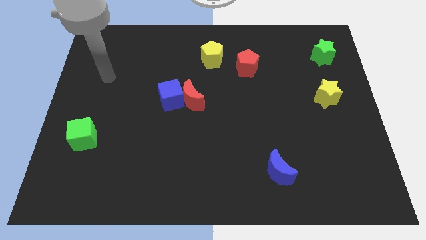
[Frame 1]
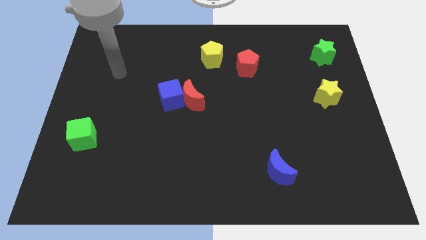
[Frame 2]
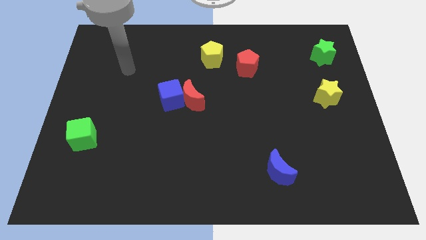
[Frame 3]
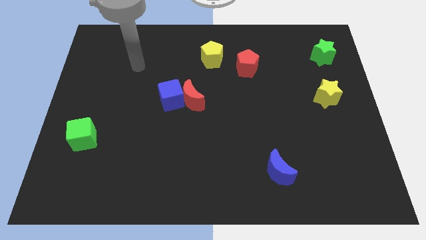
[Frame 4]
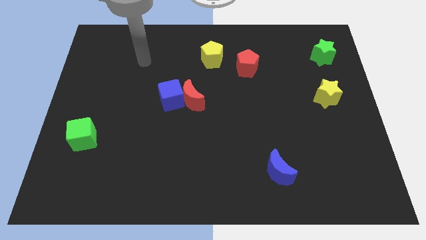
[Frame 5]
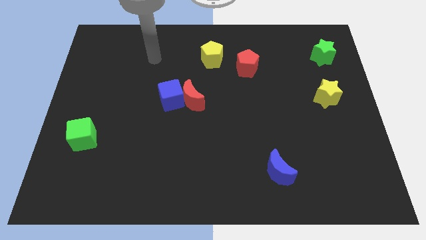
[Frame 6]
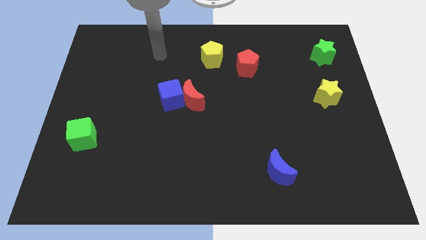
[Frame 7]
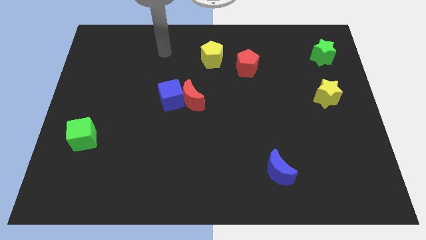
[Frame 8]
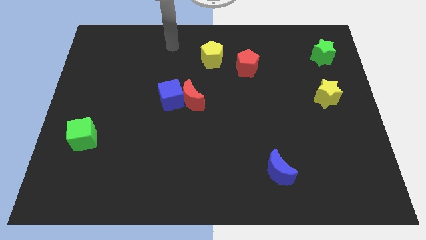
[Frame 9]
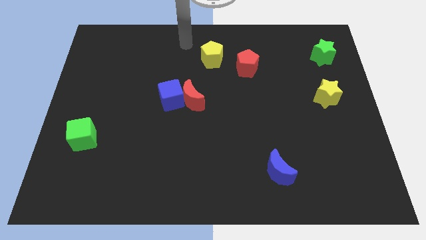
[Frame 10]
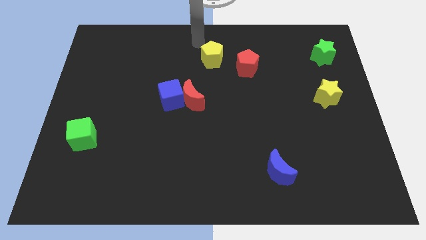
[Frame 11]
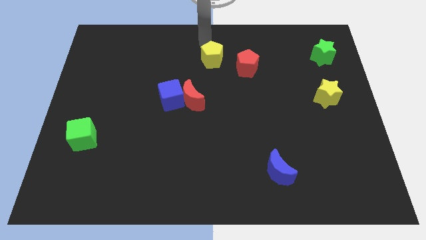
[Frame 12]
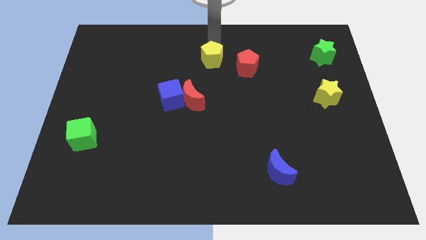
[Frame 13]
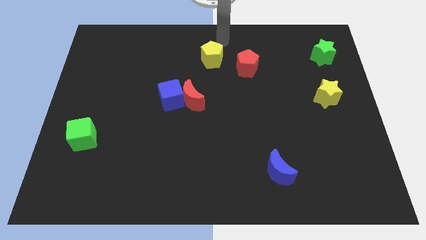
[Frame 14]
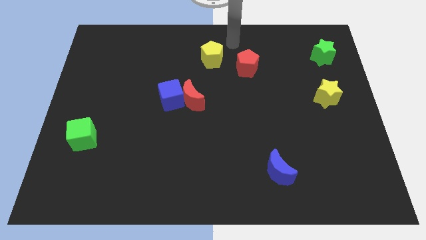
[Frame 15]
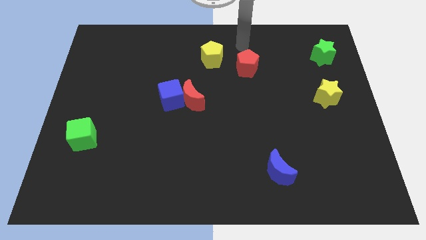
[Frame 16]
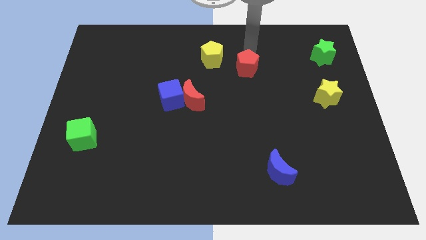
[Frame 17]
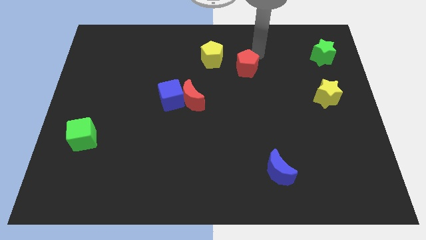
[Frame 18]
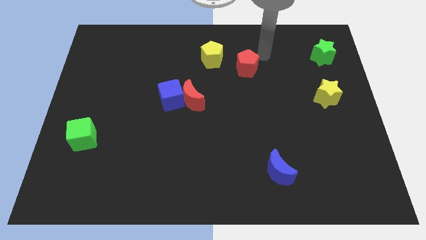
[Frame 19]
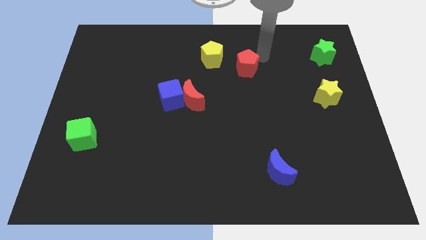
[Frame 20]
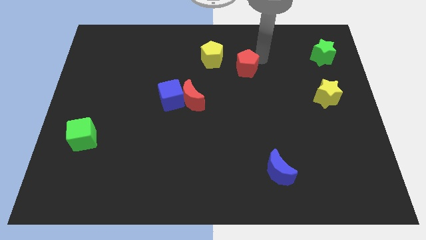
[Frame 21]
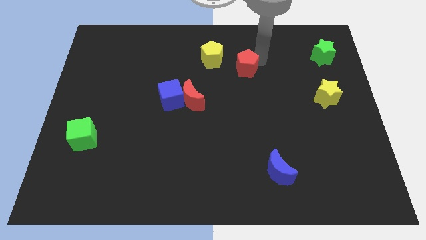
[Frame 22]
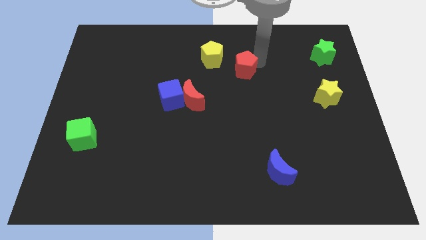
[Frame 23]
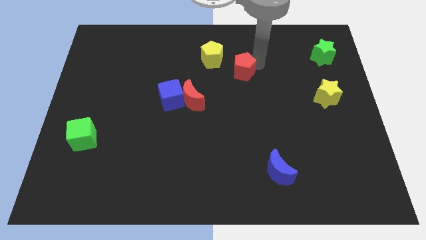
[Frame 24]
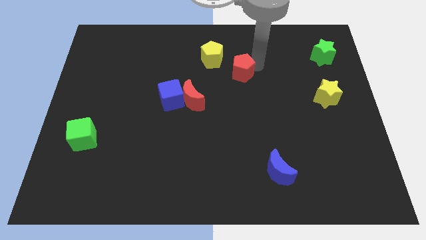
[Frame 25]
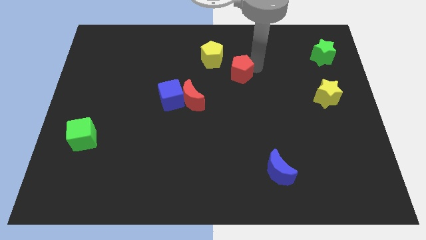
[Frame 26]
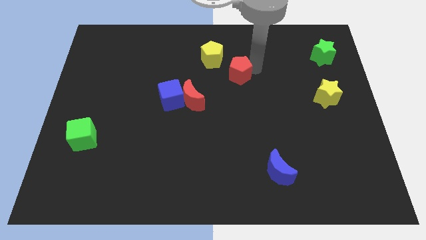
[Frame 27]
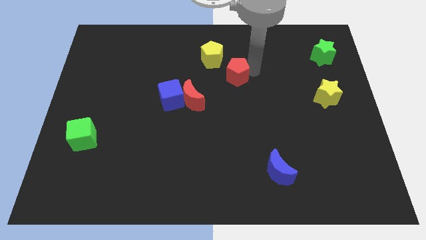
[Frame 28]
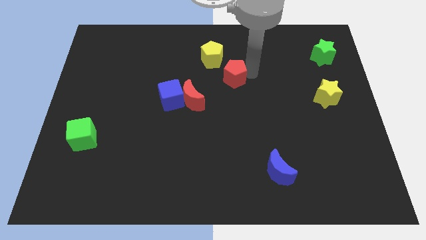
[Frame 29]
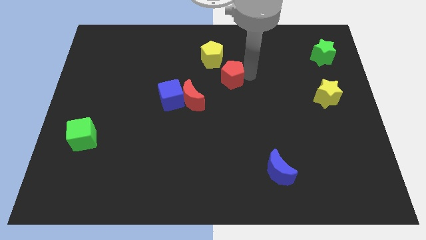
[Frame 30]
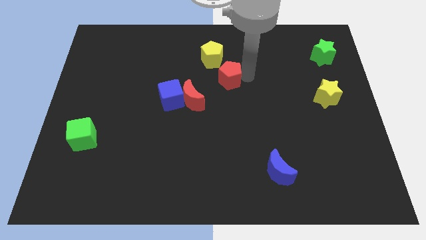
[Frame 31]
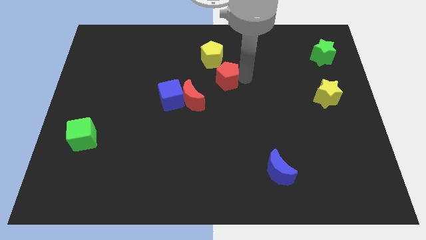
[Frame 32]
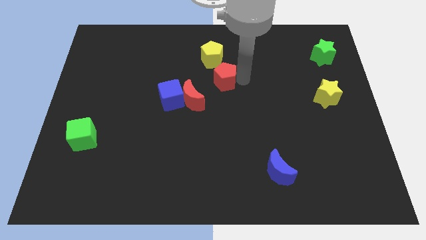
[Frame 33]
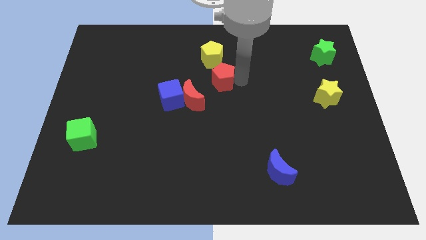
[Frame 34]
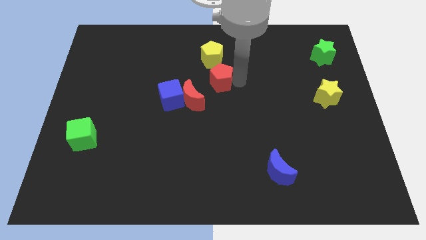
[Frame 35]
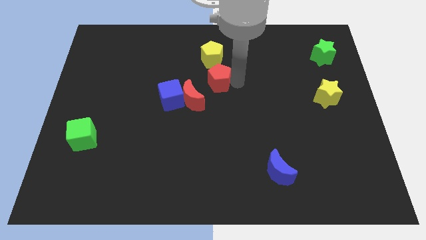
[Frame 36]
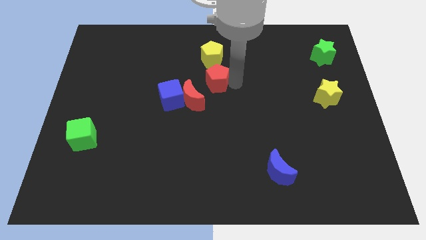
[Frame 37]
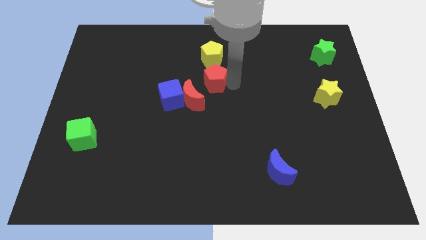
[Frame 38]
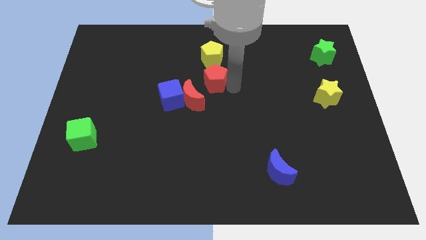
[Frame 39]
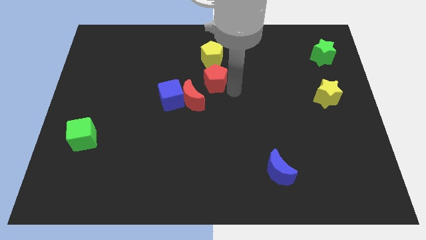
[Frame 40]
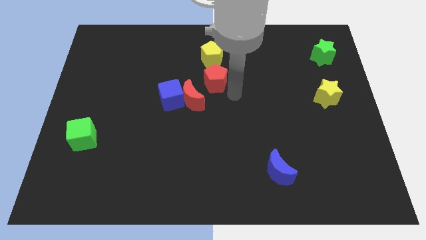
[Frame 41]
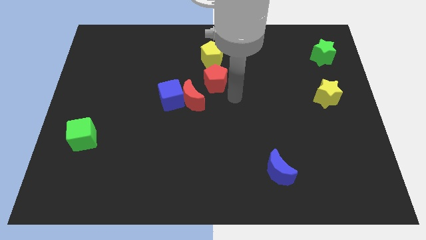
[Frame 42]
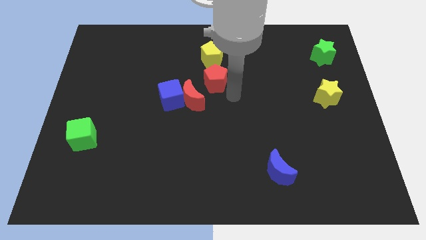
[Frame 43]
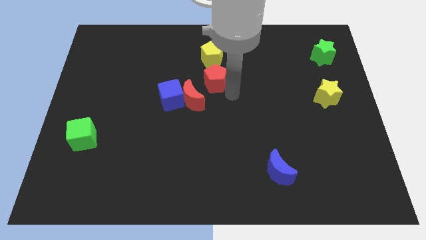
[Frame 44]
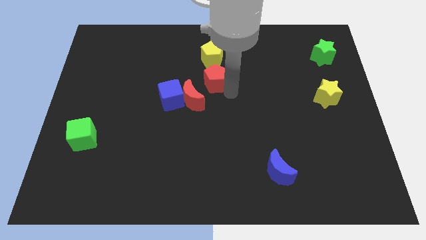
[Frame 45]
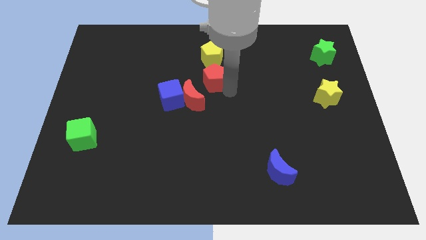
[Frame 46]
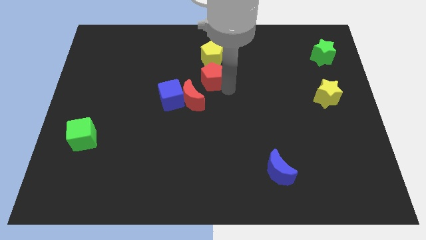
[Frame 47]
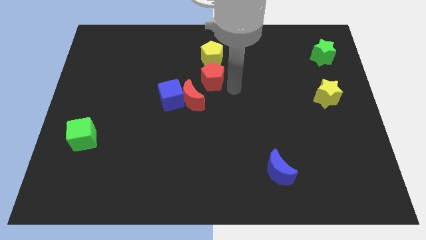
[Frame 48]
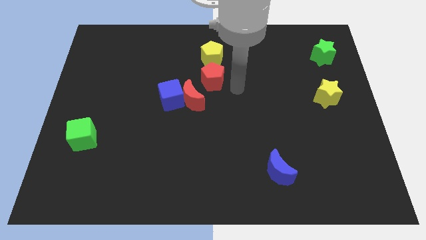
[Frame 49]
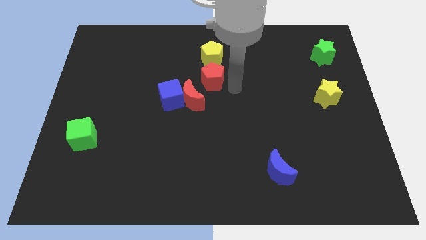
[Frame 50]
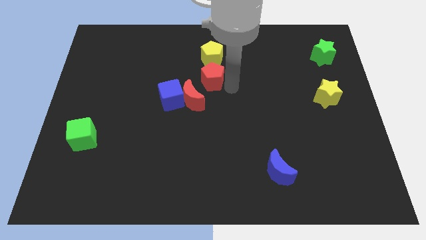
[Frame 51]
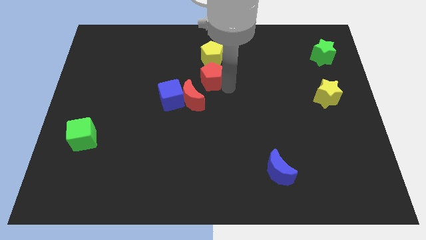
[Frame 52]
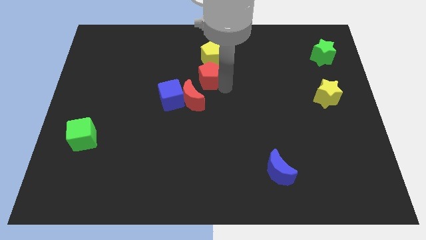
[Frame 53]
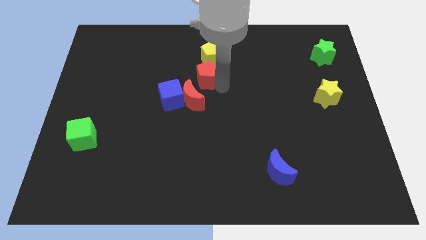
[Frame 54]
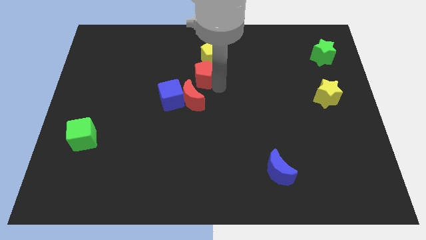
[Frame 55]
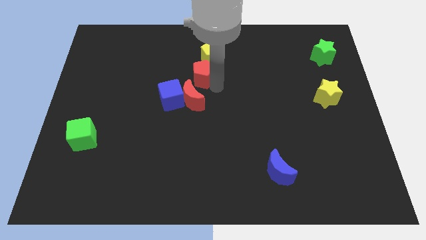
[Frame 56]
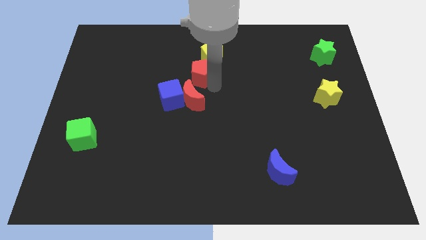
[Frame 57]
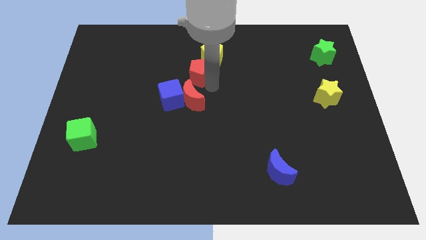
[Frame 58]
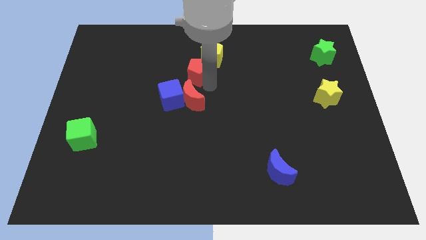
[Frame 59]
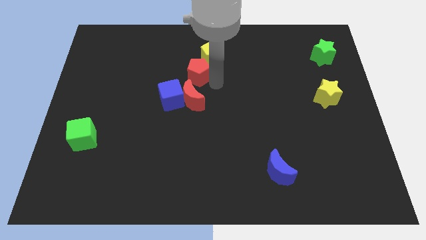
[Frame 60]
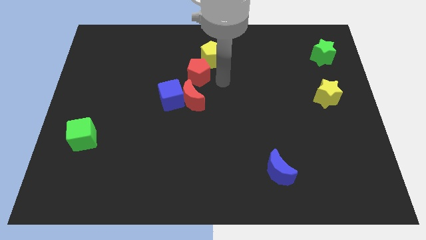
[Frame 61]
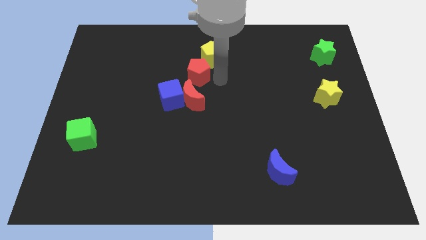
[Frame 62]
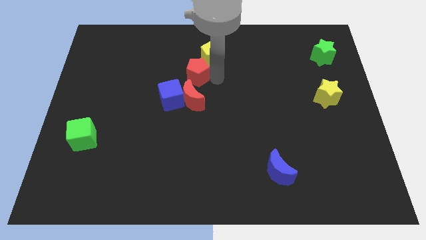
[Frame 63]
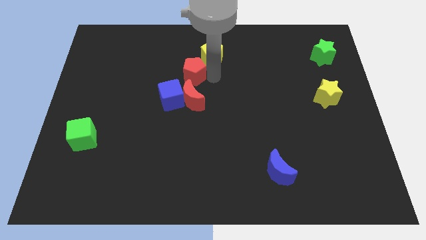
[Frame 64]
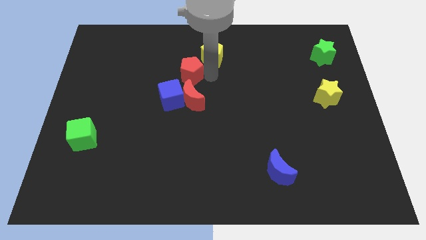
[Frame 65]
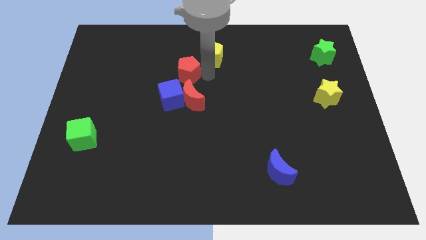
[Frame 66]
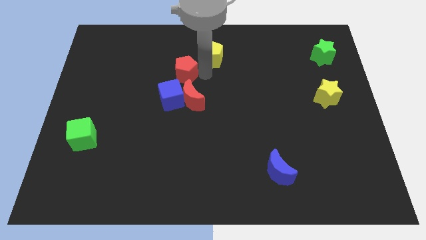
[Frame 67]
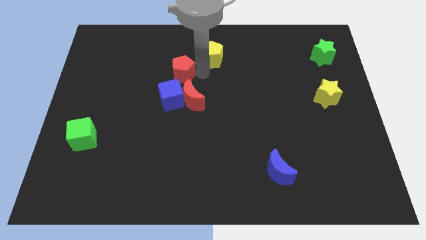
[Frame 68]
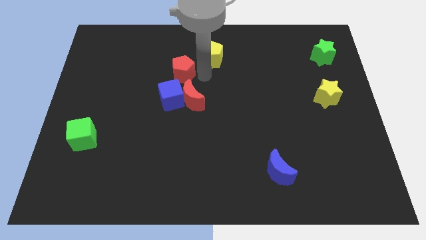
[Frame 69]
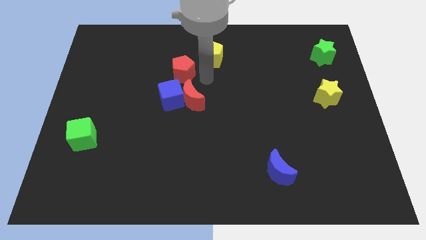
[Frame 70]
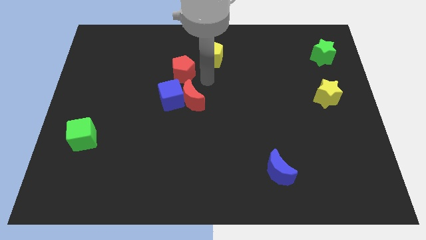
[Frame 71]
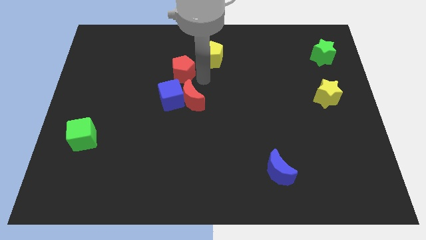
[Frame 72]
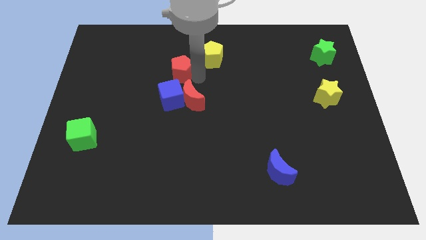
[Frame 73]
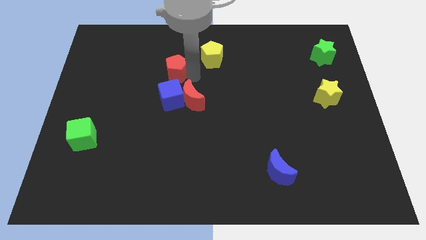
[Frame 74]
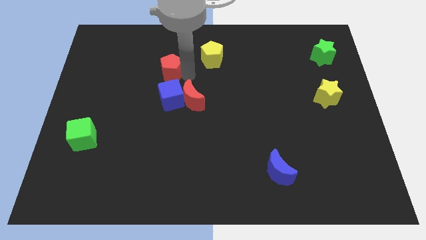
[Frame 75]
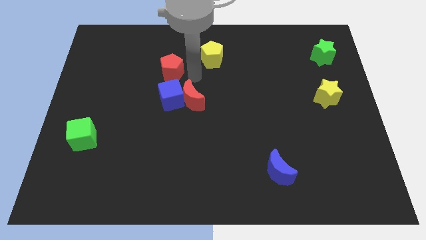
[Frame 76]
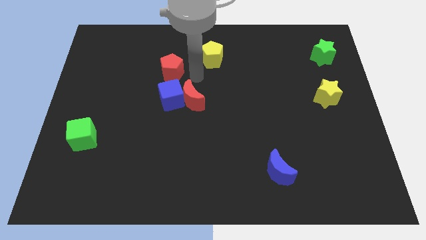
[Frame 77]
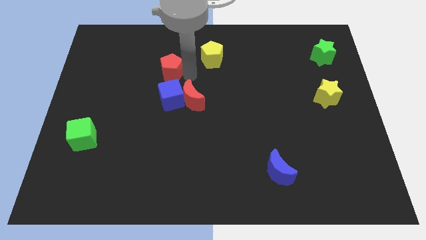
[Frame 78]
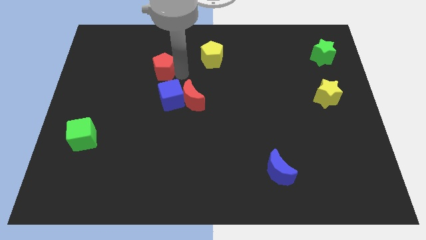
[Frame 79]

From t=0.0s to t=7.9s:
push the red pentagon to the left

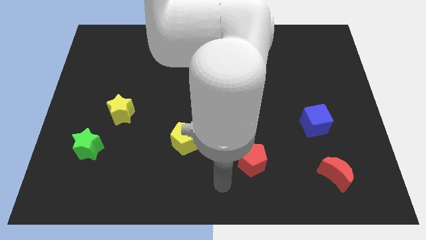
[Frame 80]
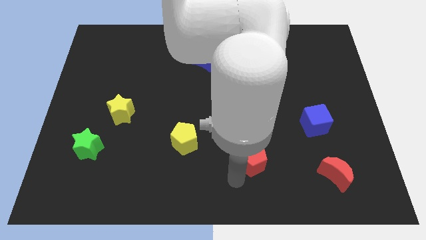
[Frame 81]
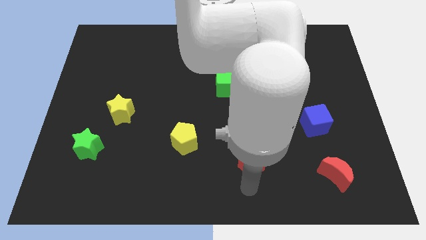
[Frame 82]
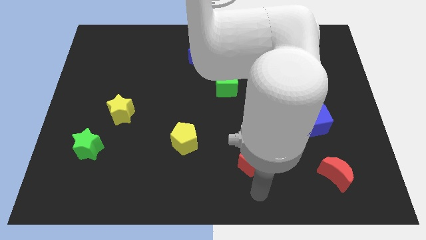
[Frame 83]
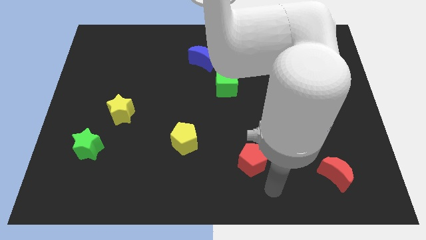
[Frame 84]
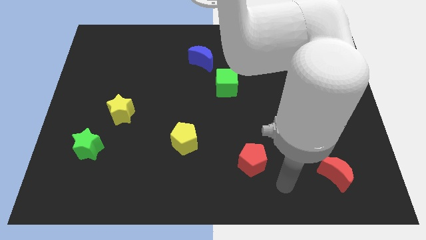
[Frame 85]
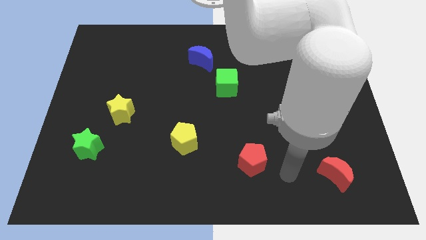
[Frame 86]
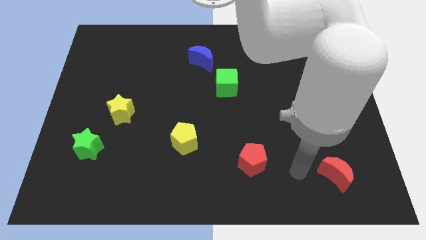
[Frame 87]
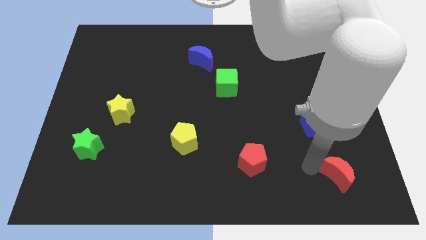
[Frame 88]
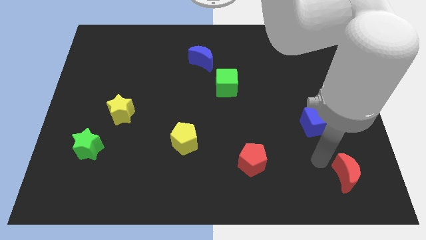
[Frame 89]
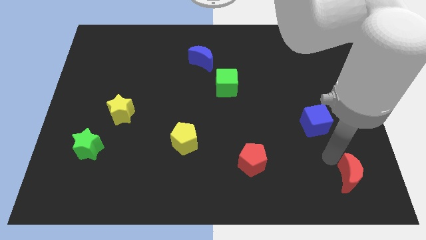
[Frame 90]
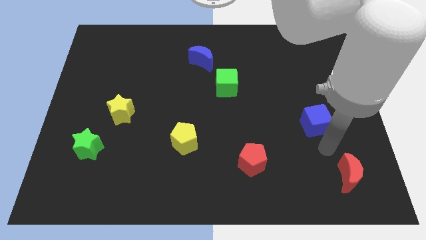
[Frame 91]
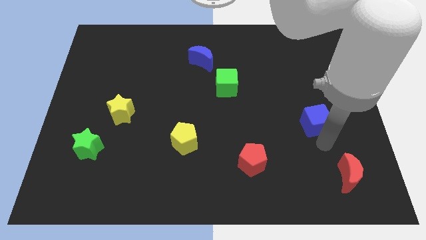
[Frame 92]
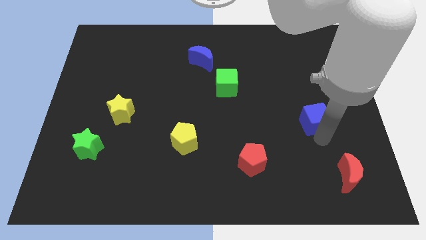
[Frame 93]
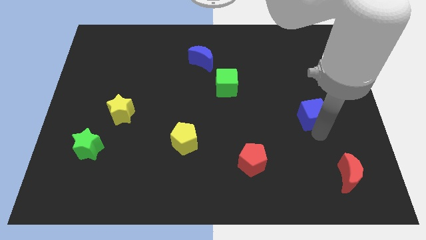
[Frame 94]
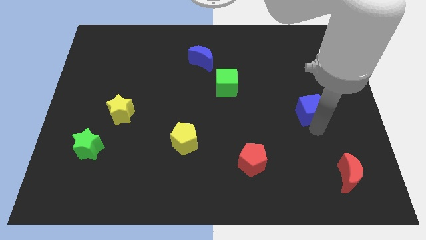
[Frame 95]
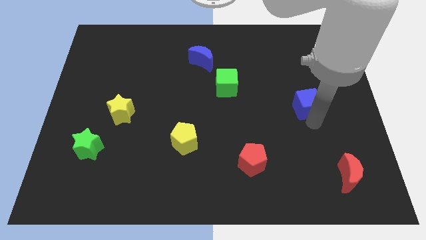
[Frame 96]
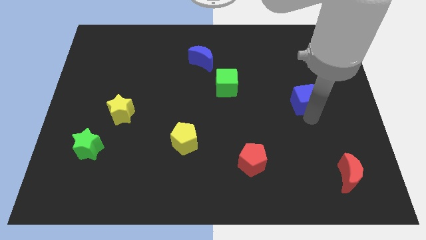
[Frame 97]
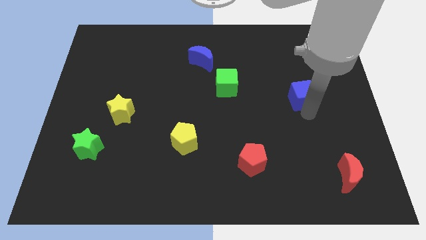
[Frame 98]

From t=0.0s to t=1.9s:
slide the blue cube upwards a bit
